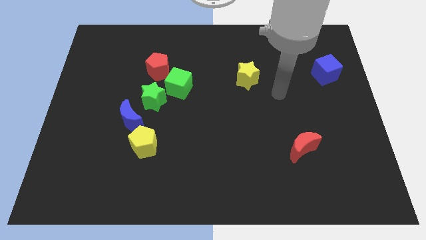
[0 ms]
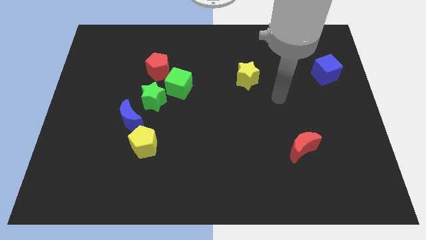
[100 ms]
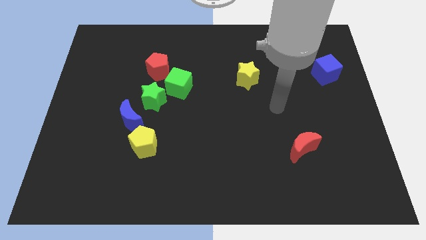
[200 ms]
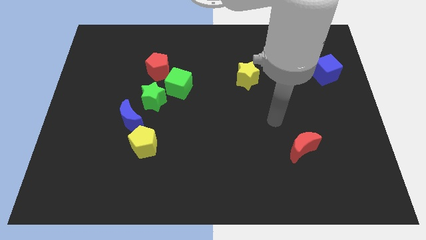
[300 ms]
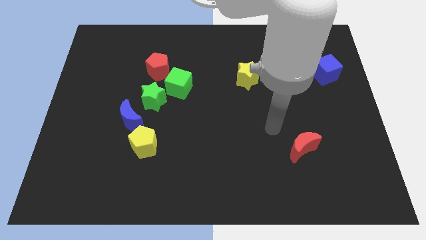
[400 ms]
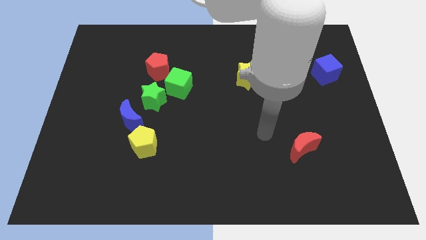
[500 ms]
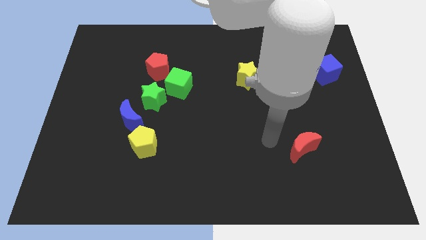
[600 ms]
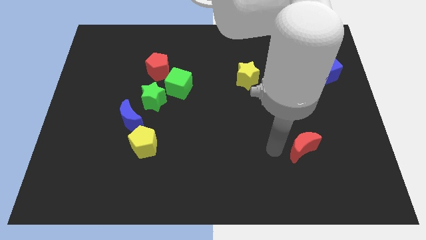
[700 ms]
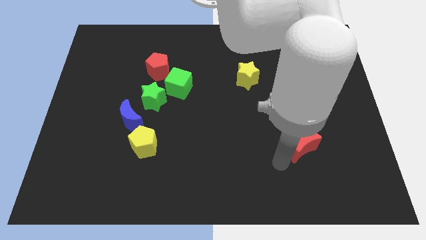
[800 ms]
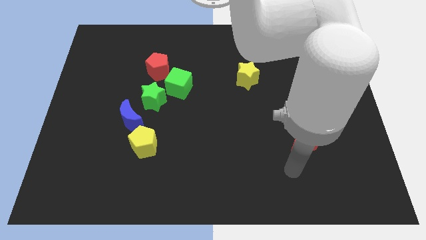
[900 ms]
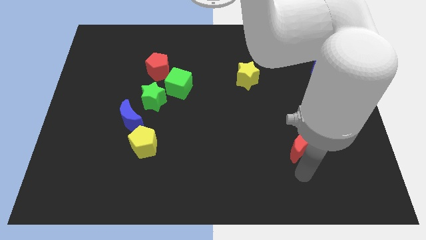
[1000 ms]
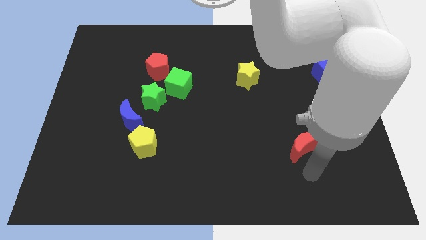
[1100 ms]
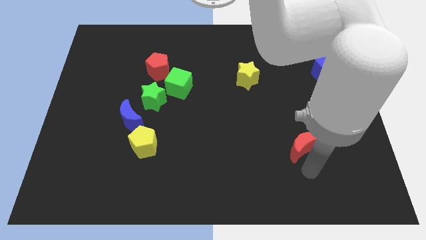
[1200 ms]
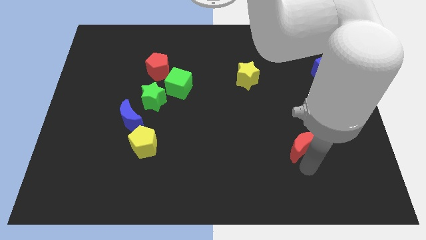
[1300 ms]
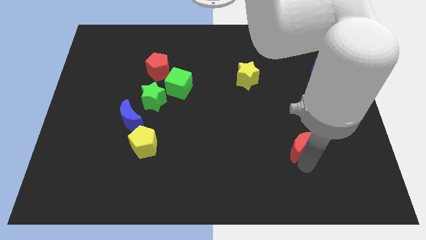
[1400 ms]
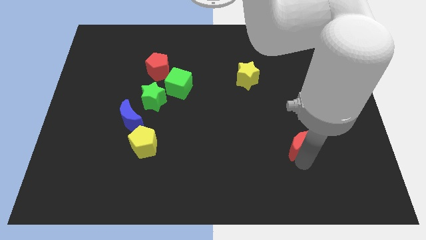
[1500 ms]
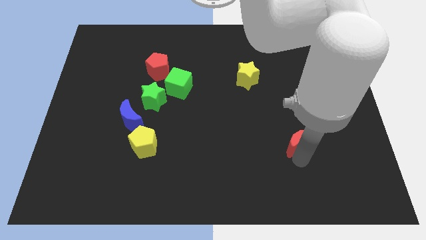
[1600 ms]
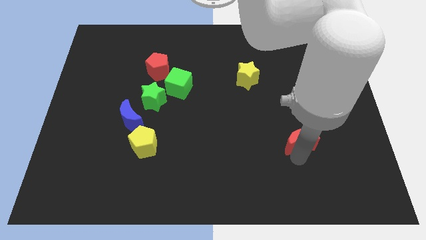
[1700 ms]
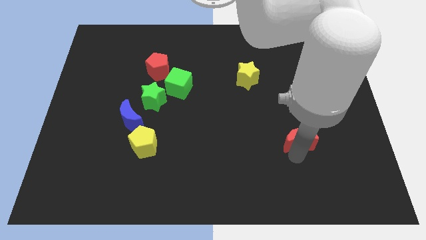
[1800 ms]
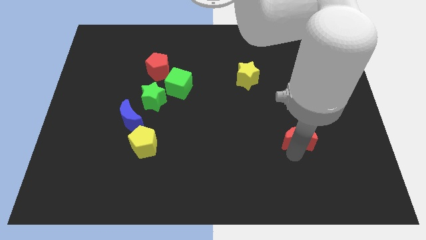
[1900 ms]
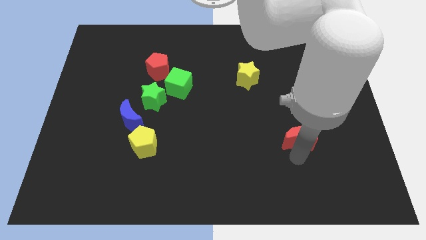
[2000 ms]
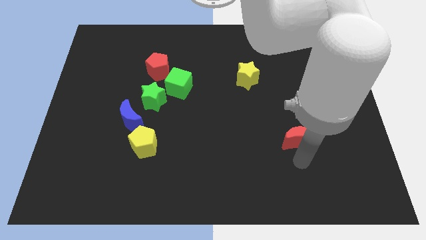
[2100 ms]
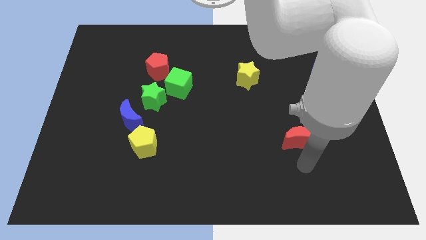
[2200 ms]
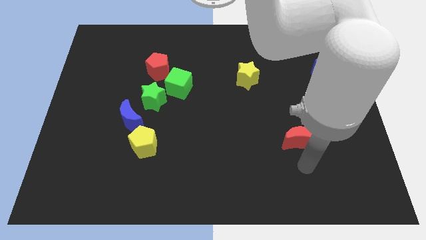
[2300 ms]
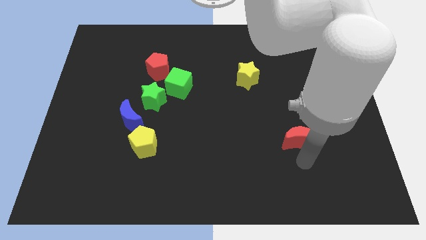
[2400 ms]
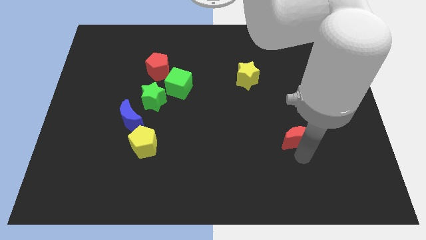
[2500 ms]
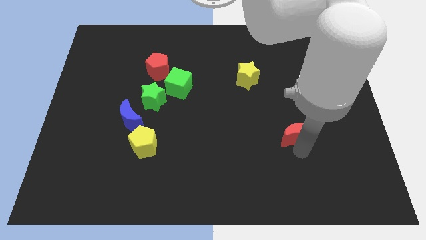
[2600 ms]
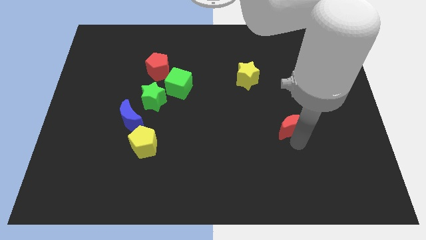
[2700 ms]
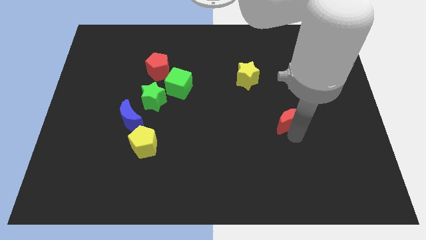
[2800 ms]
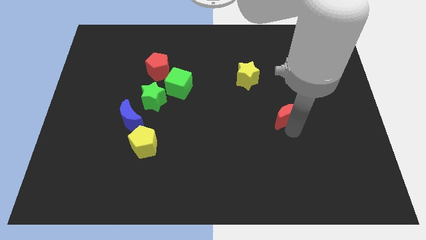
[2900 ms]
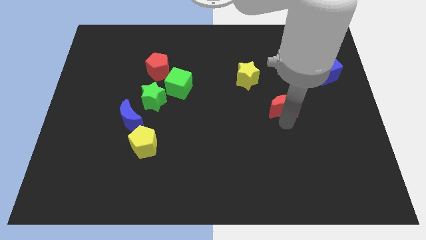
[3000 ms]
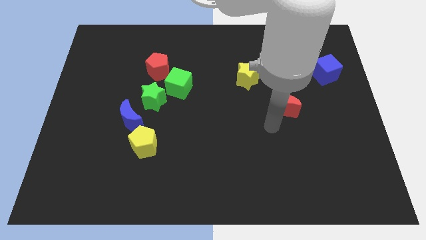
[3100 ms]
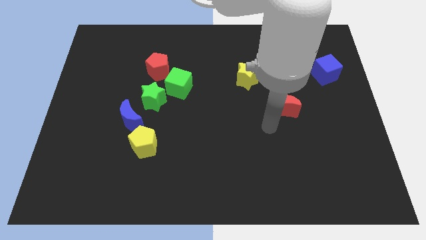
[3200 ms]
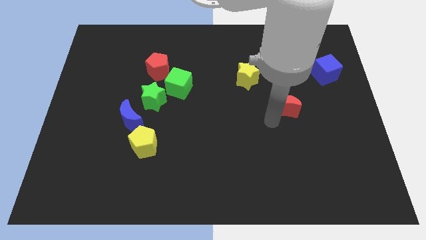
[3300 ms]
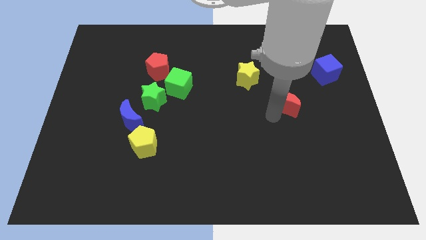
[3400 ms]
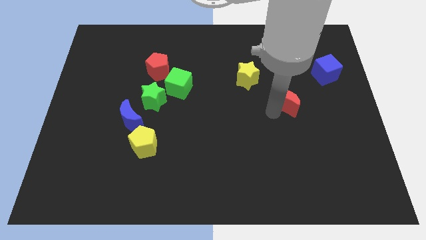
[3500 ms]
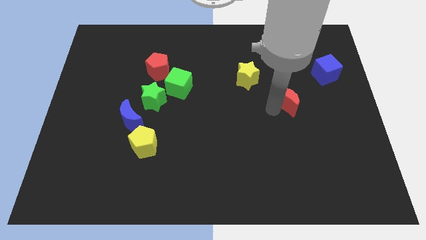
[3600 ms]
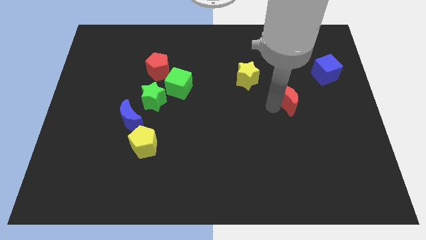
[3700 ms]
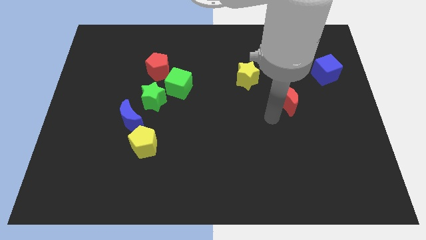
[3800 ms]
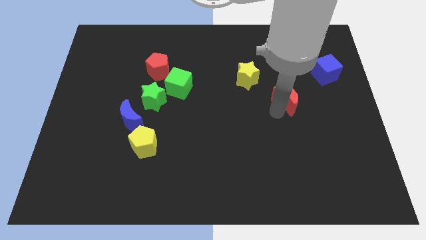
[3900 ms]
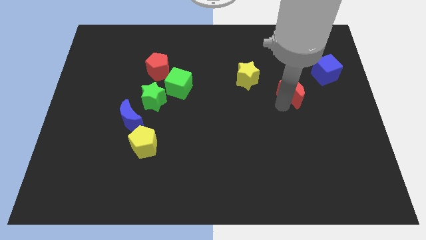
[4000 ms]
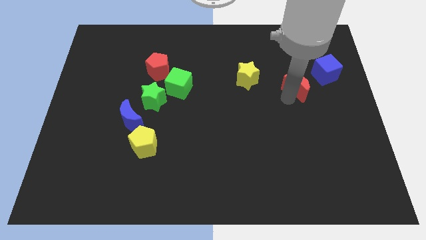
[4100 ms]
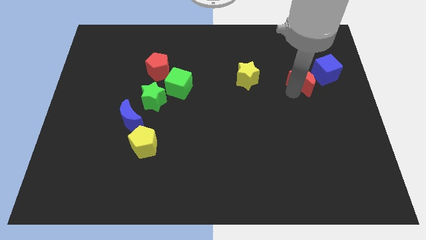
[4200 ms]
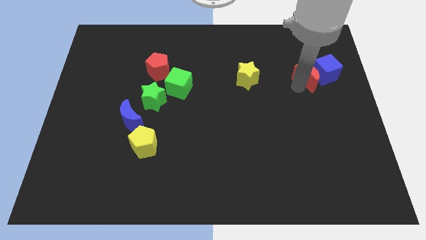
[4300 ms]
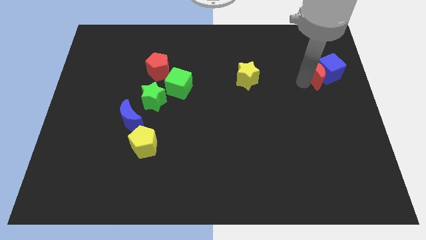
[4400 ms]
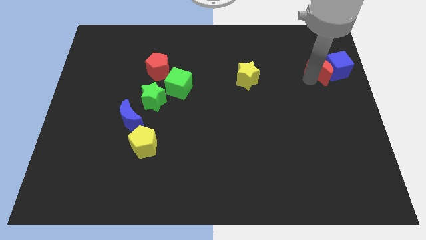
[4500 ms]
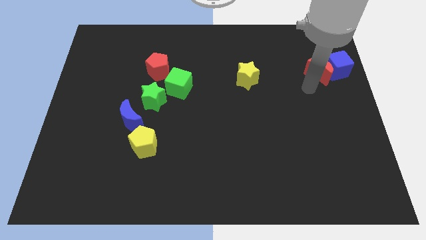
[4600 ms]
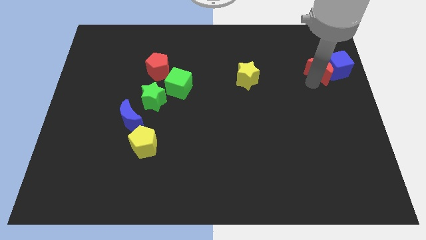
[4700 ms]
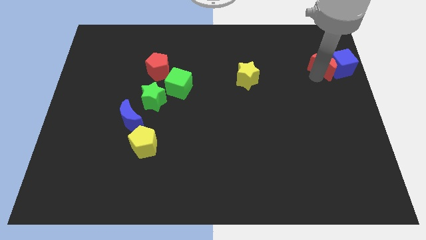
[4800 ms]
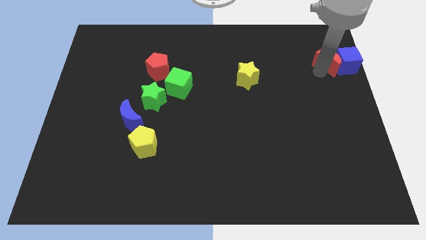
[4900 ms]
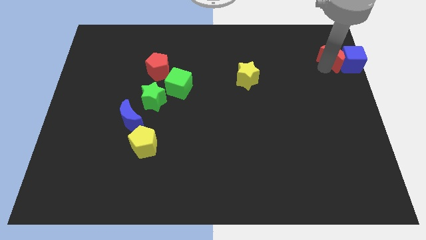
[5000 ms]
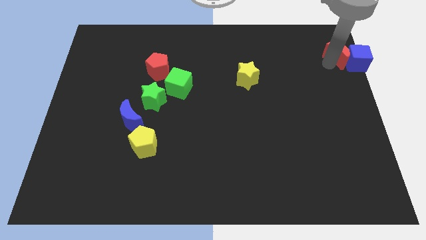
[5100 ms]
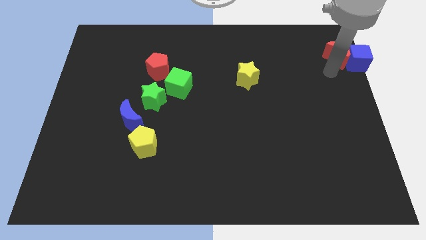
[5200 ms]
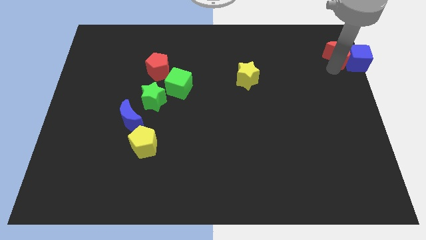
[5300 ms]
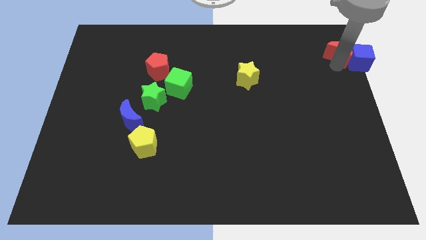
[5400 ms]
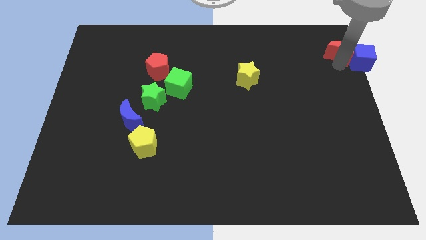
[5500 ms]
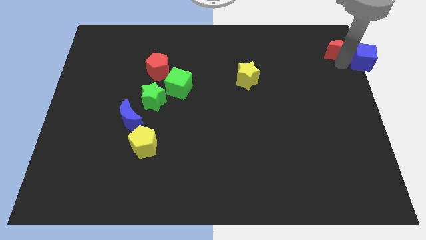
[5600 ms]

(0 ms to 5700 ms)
slide the red moon to the top right

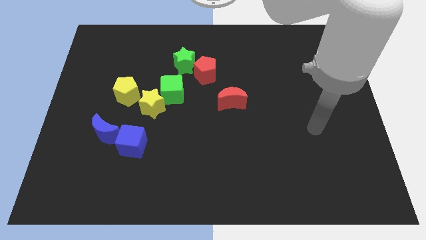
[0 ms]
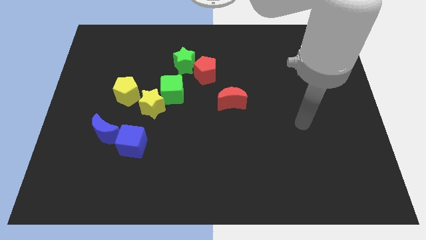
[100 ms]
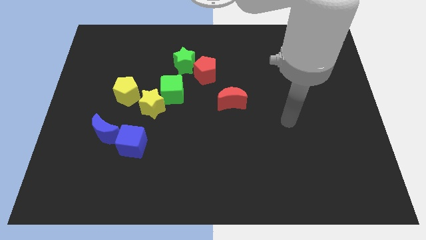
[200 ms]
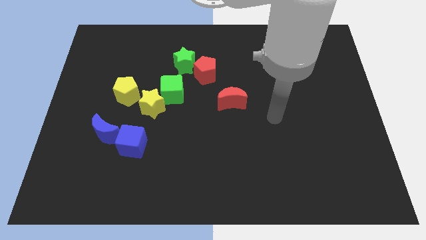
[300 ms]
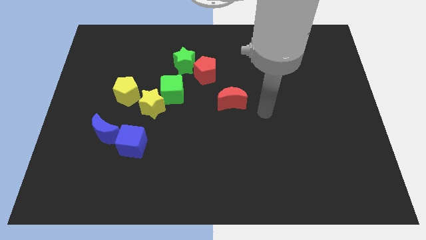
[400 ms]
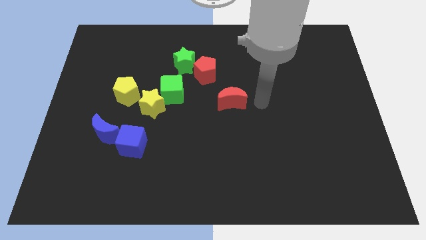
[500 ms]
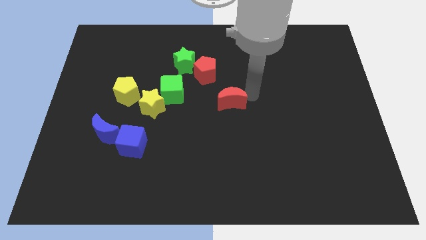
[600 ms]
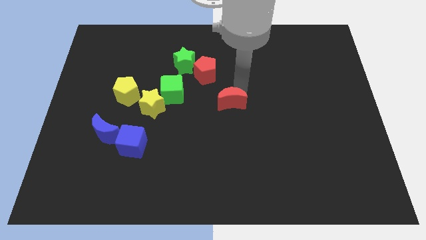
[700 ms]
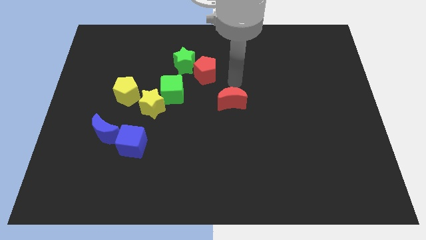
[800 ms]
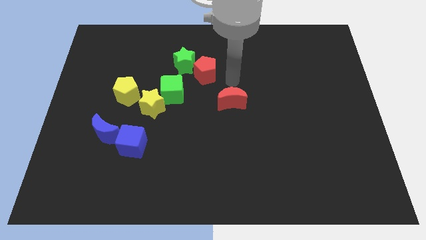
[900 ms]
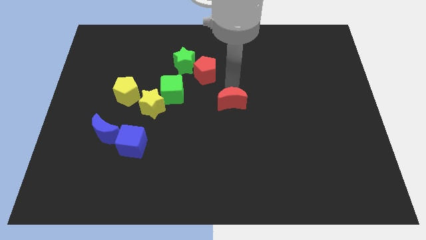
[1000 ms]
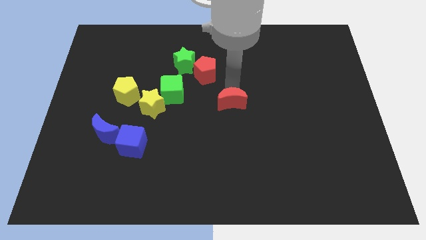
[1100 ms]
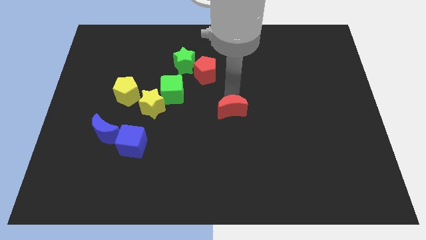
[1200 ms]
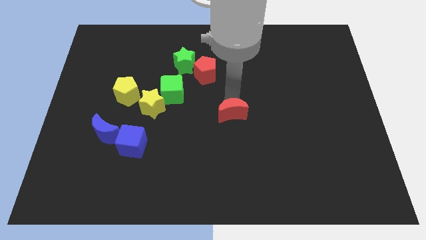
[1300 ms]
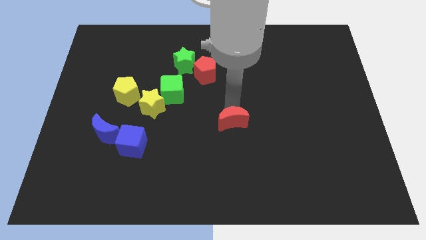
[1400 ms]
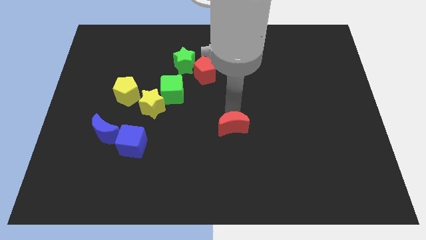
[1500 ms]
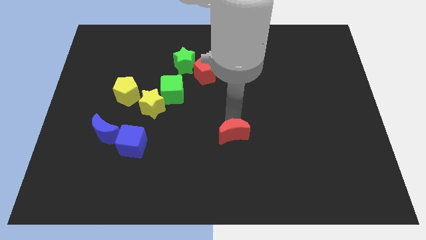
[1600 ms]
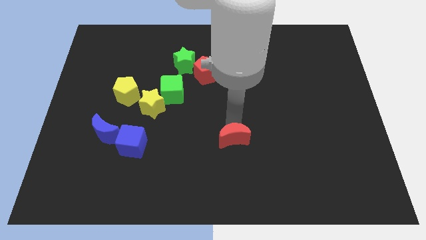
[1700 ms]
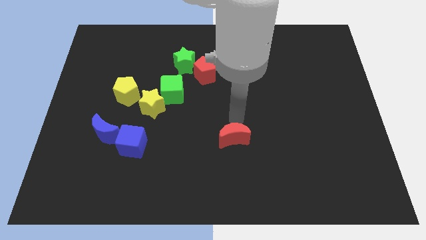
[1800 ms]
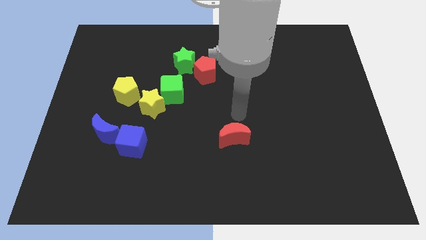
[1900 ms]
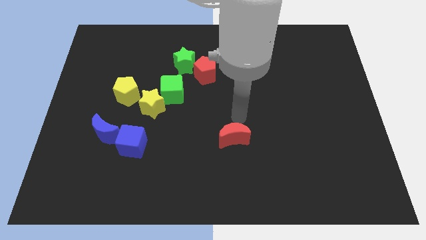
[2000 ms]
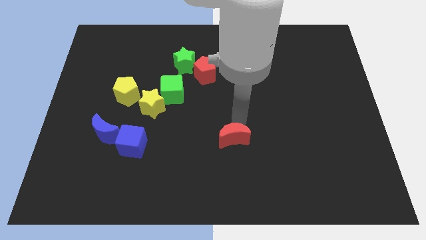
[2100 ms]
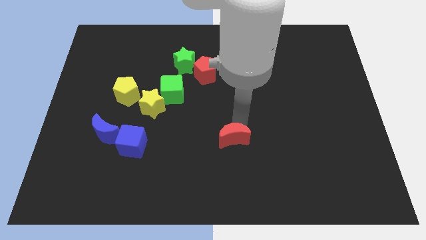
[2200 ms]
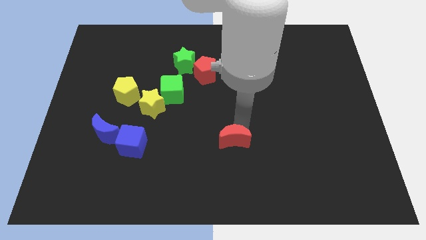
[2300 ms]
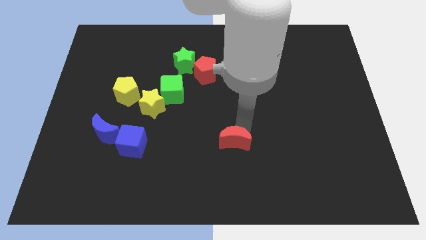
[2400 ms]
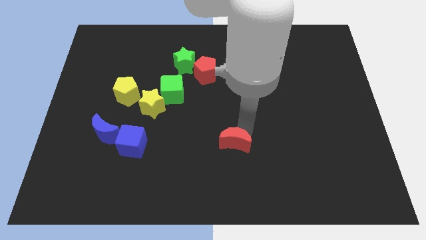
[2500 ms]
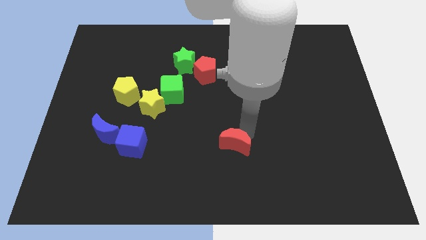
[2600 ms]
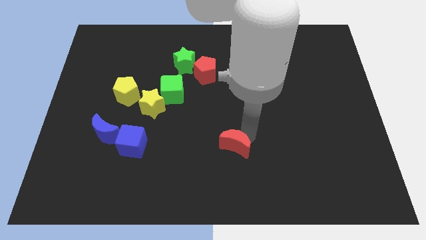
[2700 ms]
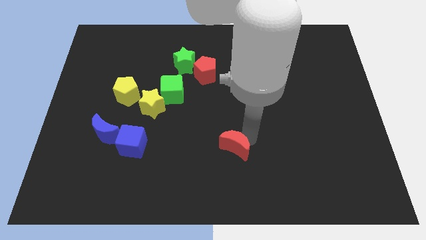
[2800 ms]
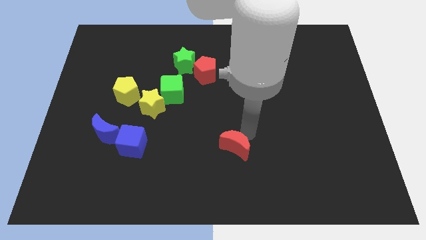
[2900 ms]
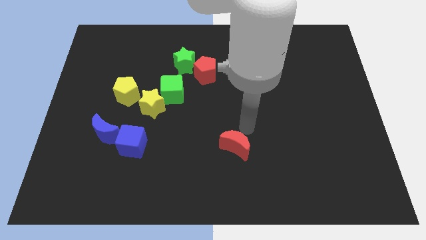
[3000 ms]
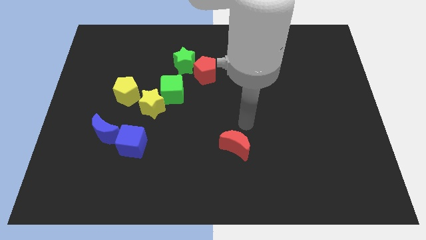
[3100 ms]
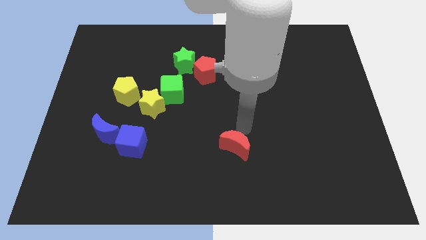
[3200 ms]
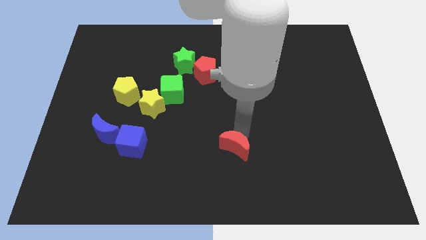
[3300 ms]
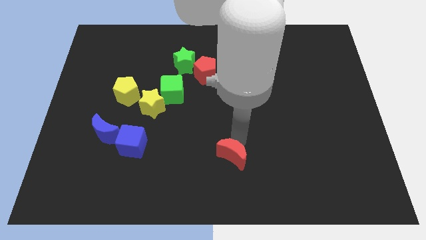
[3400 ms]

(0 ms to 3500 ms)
put the red moon to the bottom
